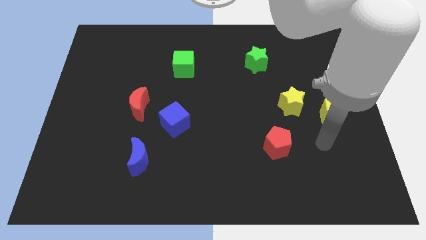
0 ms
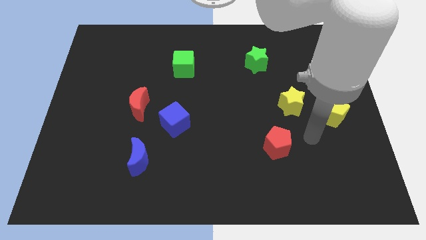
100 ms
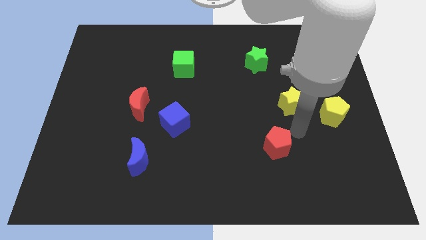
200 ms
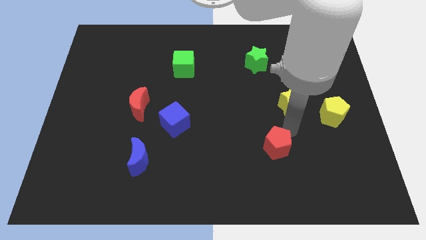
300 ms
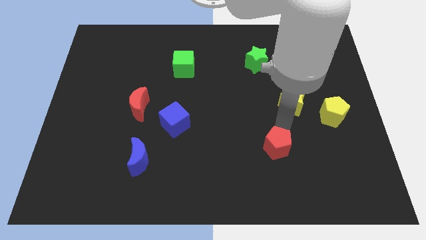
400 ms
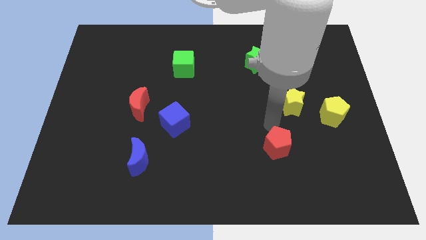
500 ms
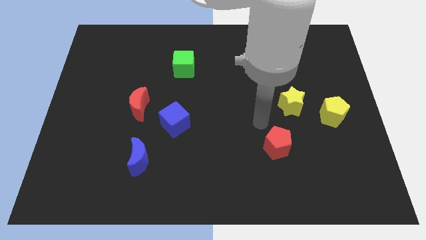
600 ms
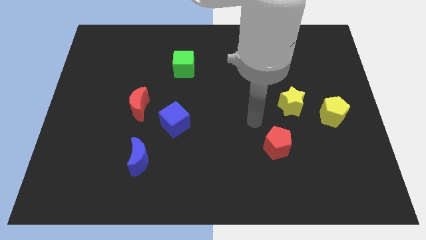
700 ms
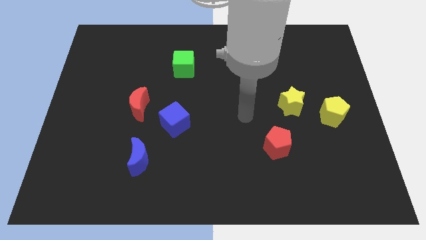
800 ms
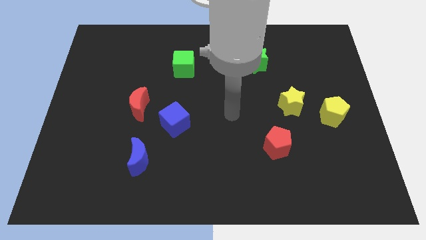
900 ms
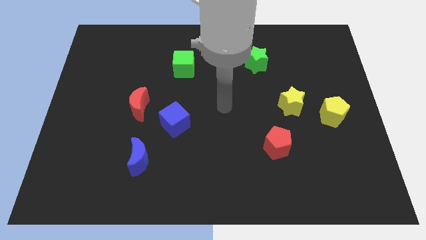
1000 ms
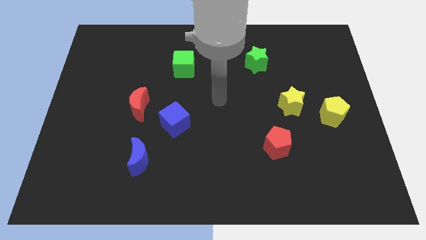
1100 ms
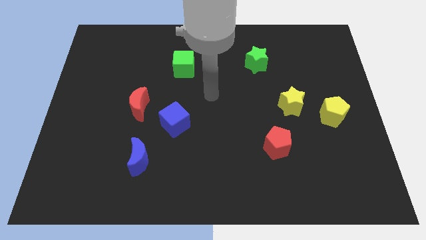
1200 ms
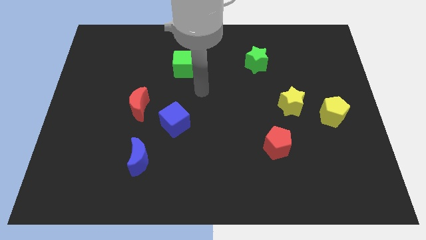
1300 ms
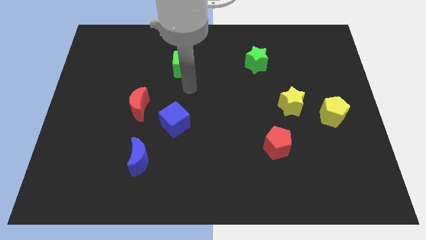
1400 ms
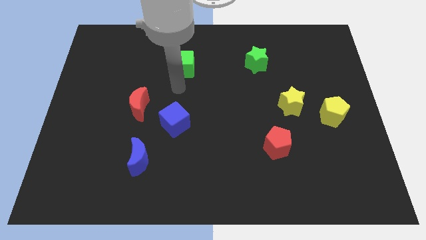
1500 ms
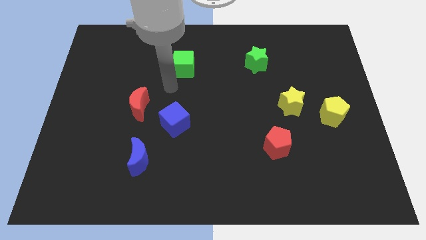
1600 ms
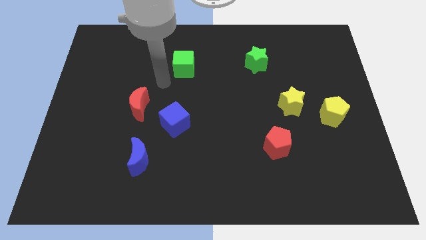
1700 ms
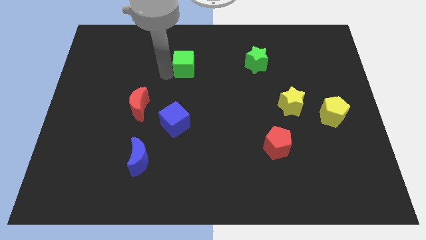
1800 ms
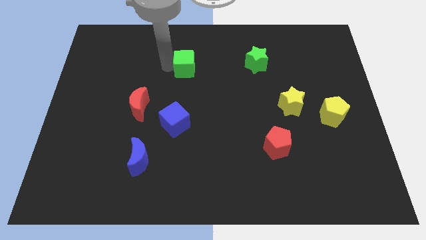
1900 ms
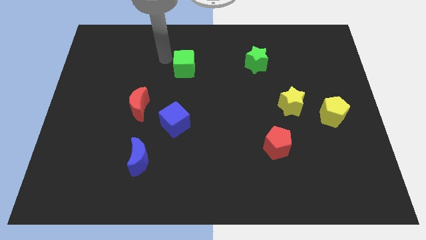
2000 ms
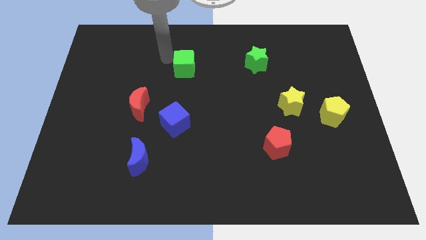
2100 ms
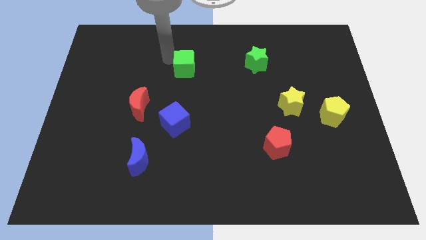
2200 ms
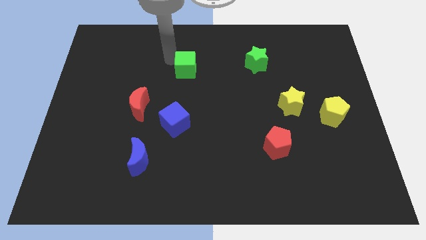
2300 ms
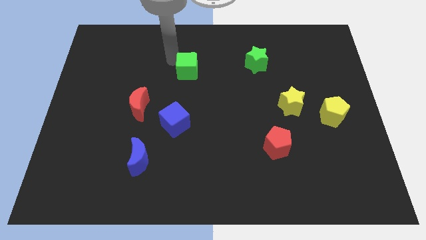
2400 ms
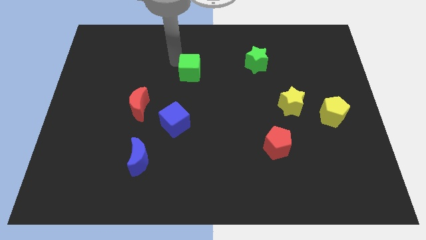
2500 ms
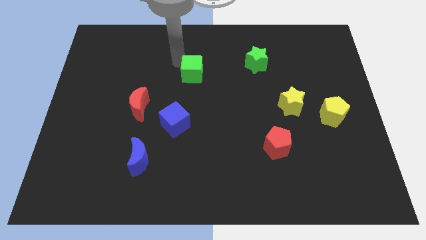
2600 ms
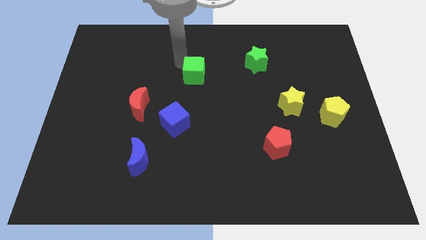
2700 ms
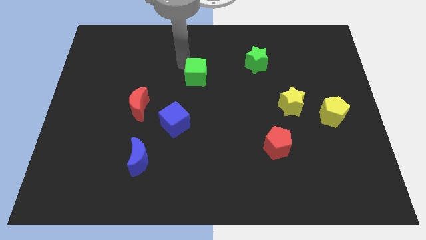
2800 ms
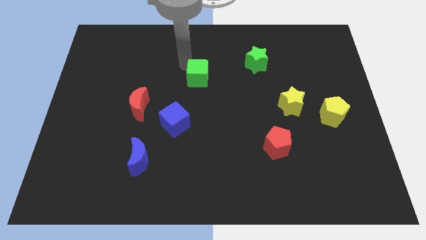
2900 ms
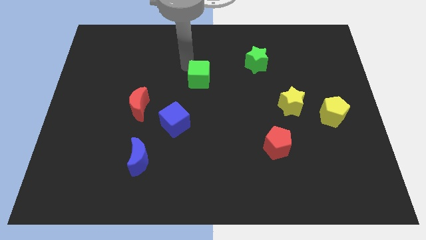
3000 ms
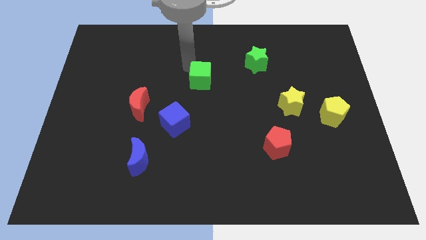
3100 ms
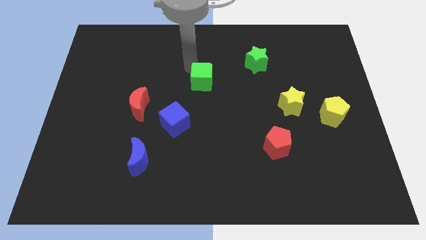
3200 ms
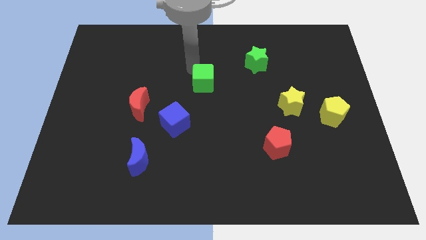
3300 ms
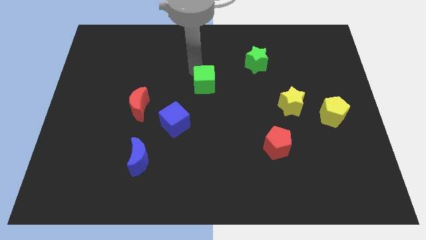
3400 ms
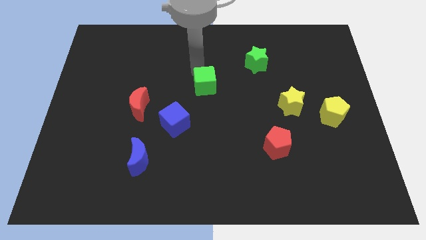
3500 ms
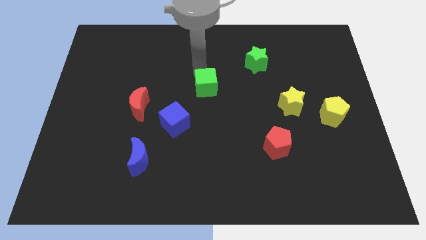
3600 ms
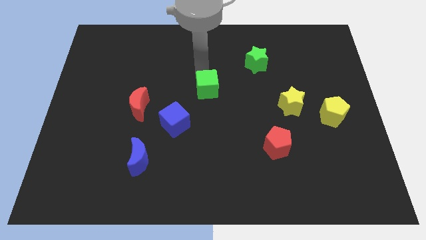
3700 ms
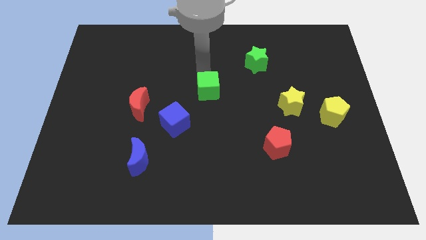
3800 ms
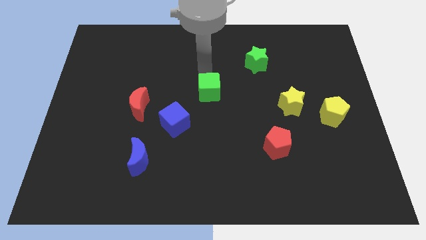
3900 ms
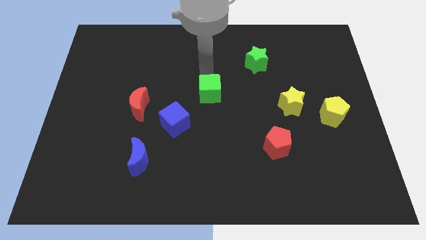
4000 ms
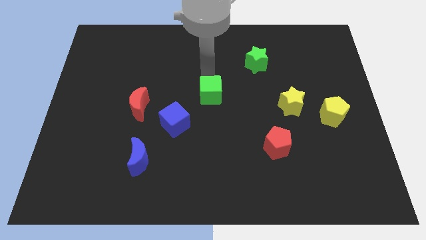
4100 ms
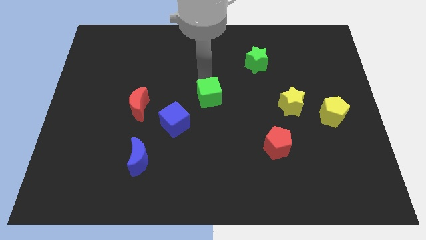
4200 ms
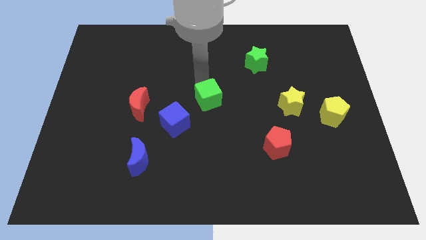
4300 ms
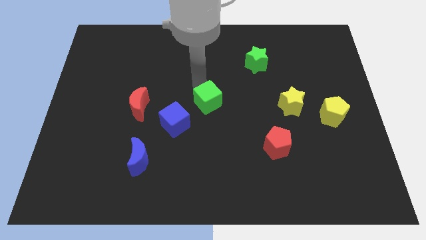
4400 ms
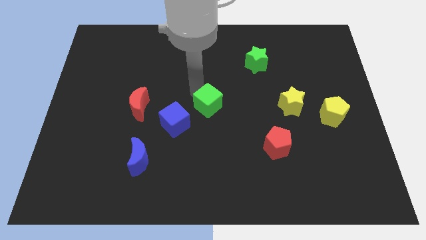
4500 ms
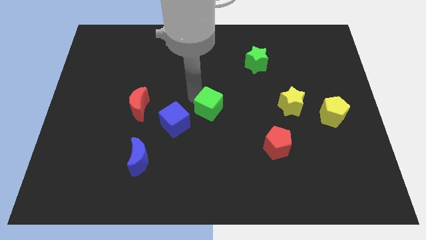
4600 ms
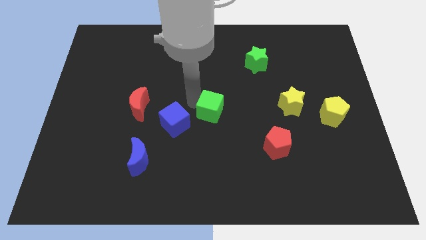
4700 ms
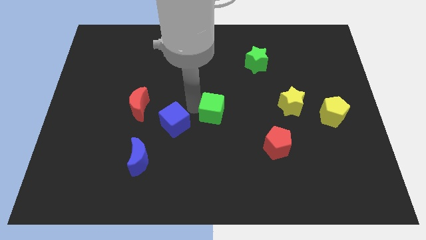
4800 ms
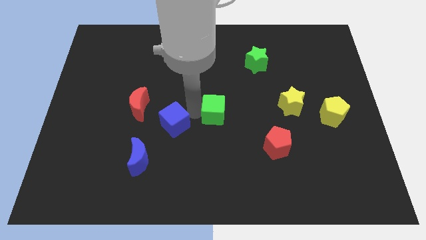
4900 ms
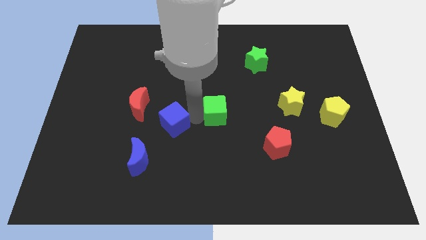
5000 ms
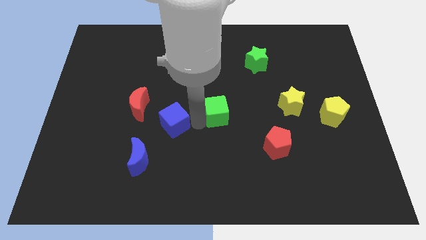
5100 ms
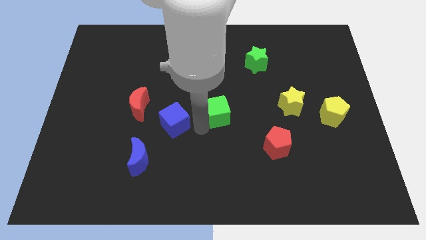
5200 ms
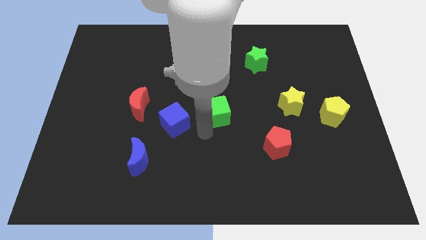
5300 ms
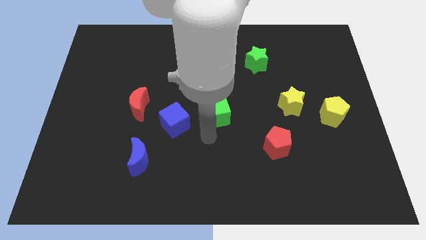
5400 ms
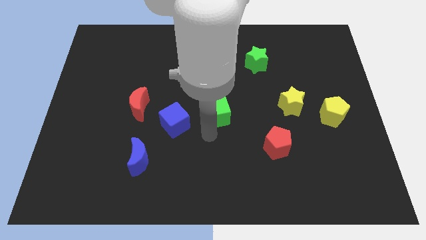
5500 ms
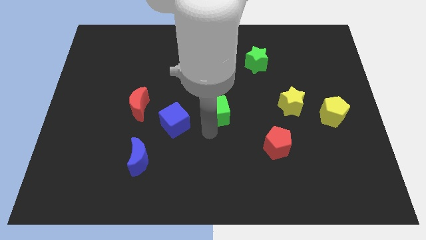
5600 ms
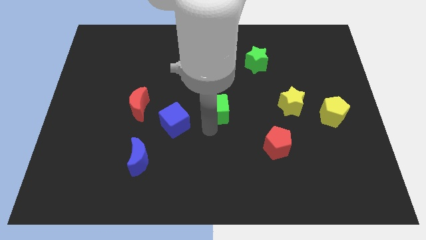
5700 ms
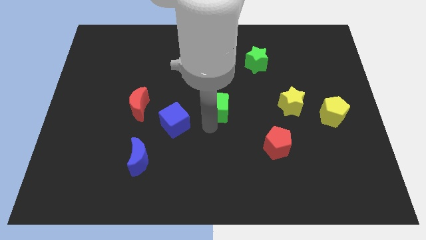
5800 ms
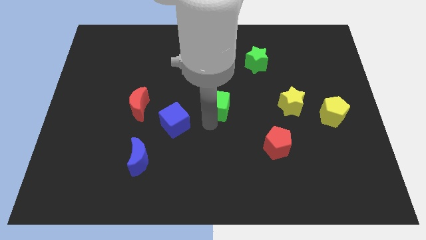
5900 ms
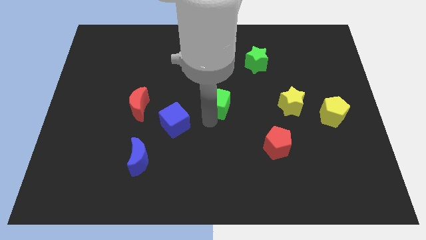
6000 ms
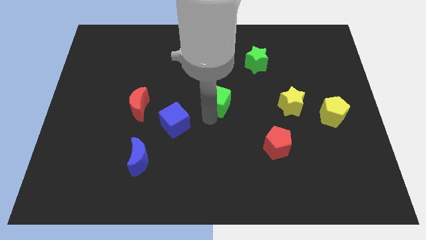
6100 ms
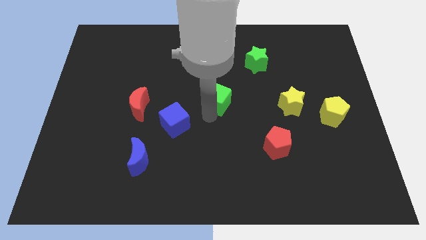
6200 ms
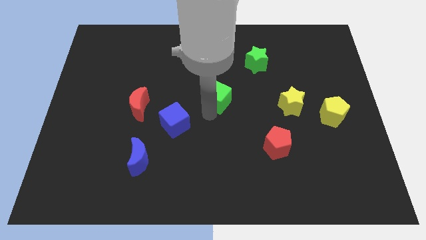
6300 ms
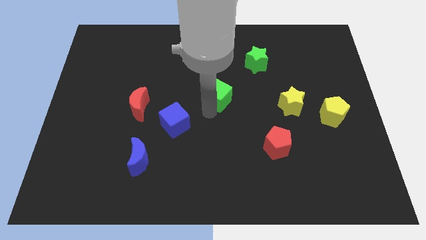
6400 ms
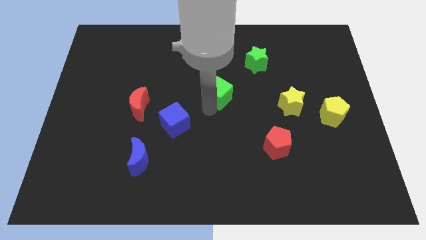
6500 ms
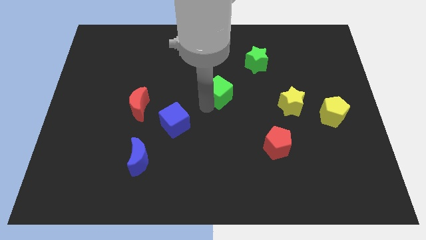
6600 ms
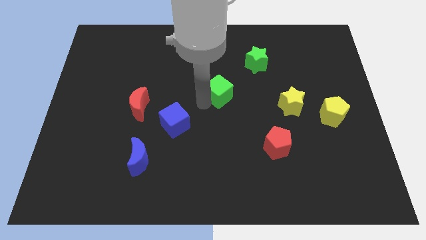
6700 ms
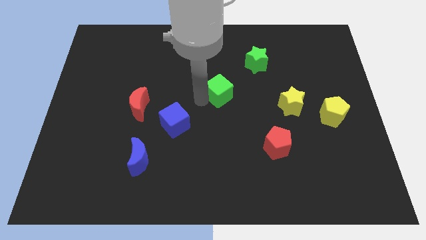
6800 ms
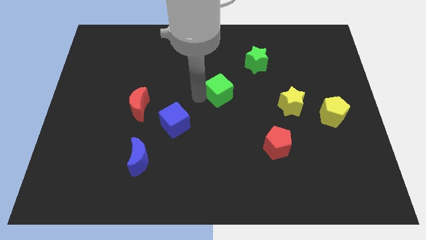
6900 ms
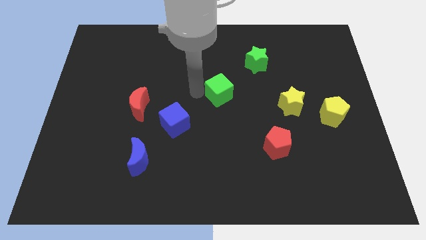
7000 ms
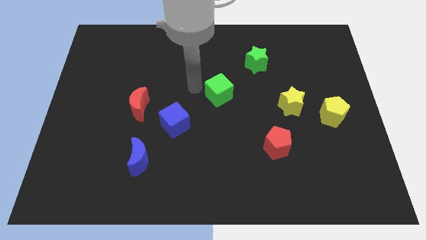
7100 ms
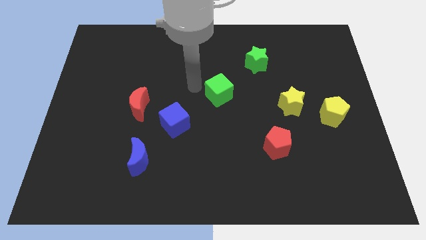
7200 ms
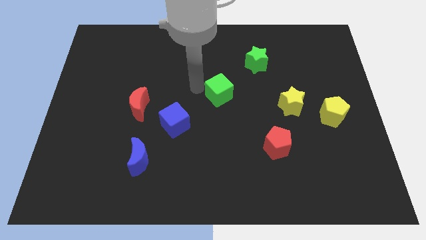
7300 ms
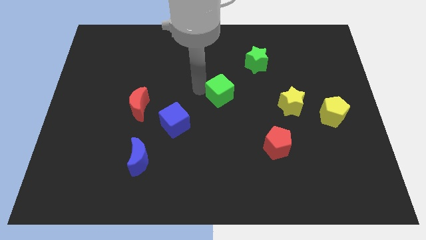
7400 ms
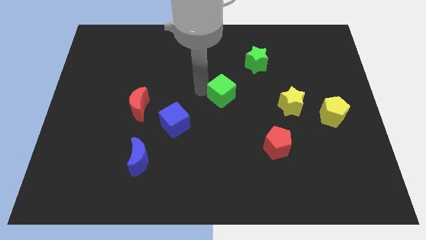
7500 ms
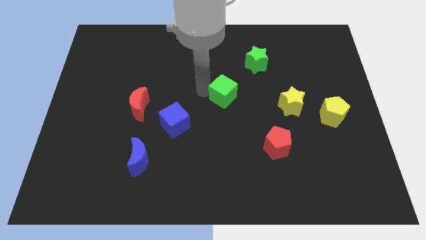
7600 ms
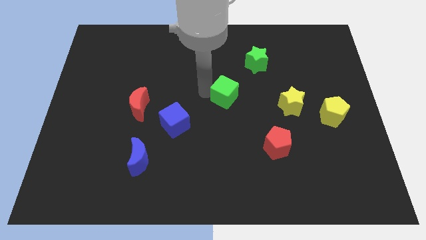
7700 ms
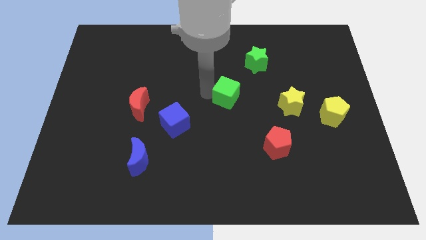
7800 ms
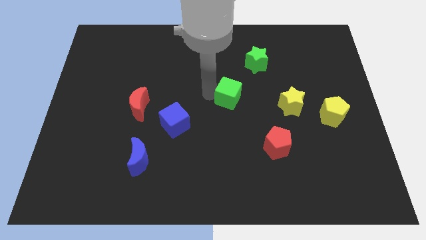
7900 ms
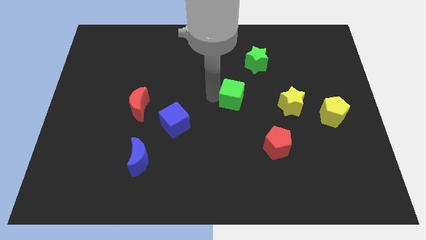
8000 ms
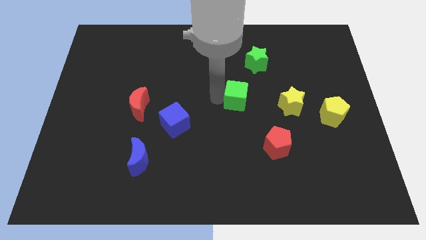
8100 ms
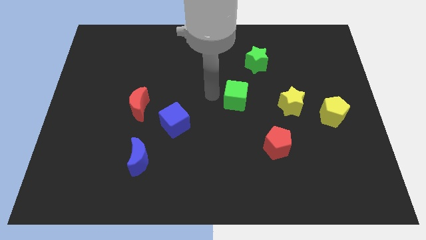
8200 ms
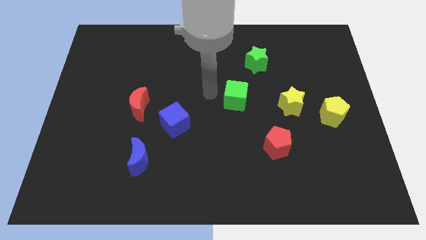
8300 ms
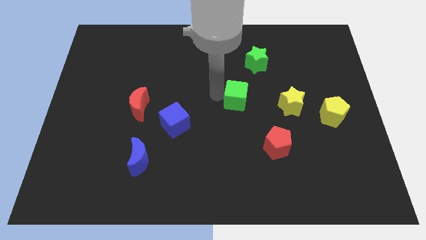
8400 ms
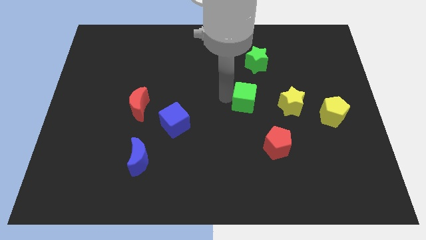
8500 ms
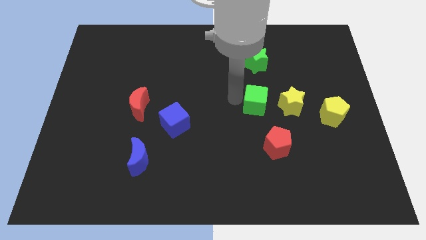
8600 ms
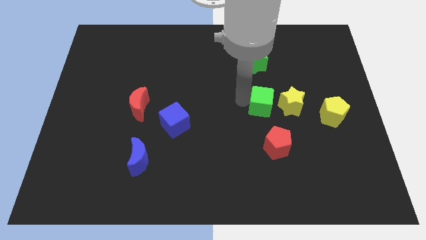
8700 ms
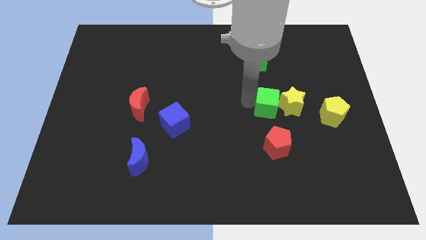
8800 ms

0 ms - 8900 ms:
push the green cube close to the yellow star
